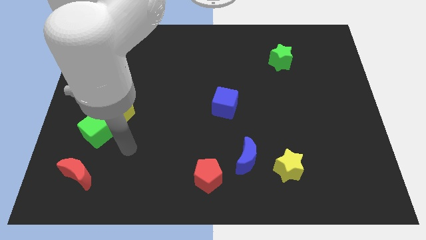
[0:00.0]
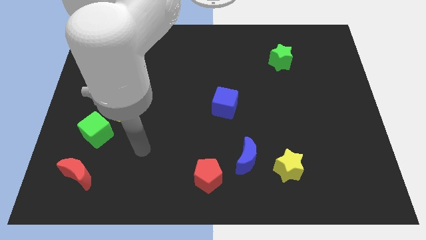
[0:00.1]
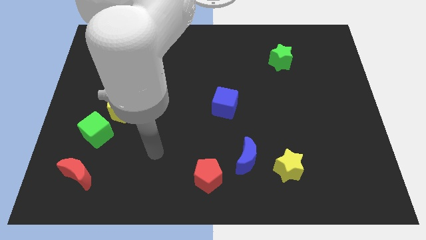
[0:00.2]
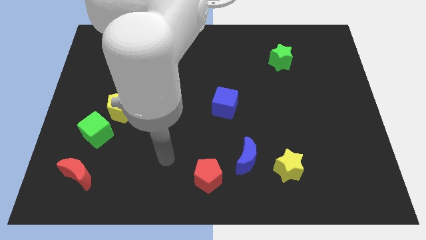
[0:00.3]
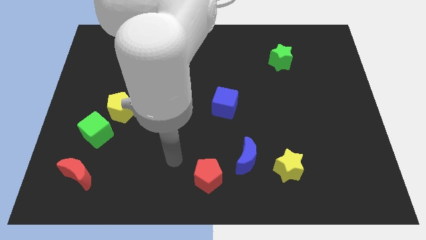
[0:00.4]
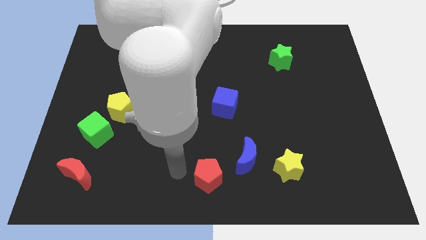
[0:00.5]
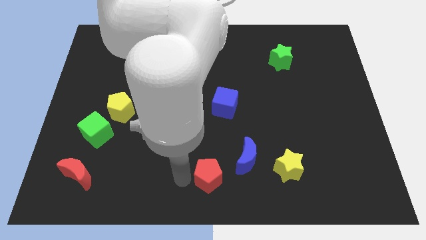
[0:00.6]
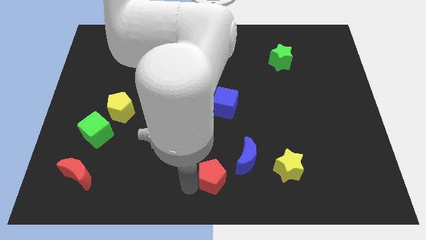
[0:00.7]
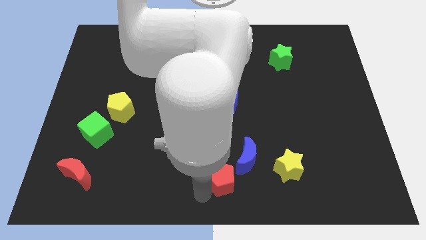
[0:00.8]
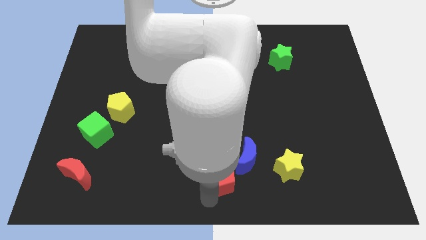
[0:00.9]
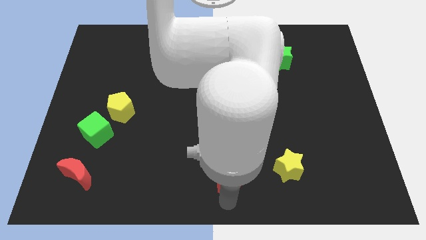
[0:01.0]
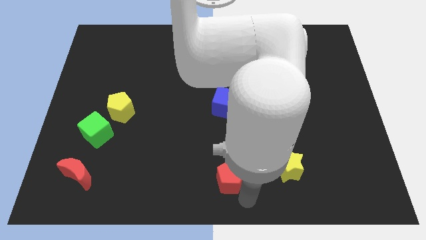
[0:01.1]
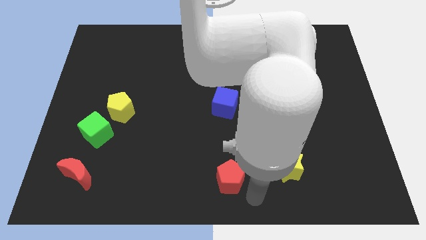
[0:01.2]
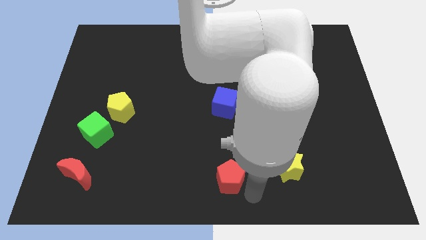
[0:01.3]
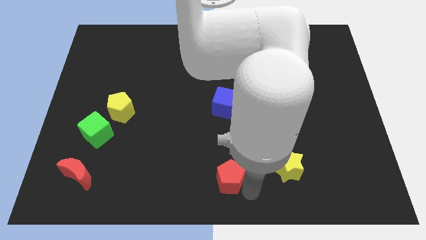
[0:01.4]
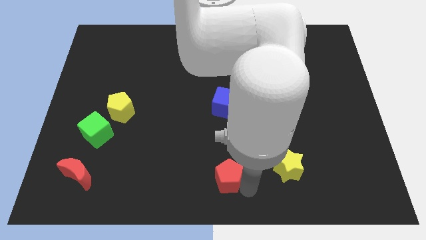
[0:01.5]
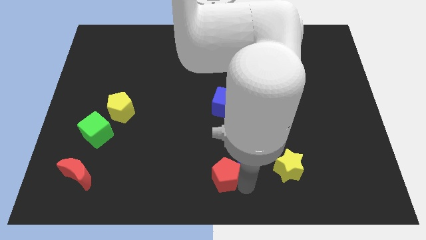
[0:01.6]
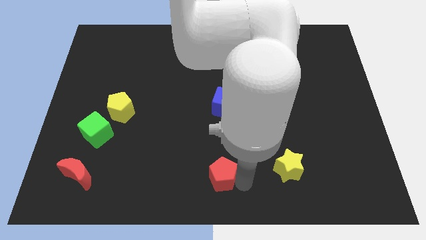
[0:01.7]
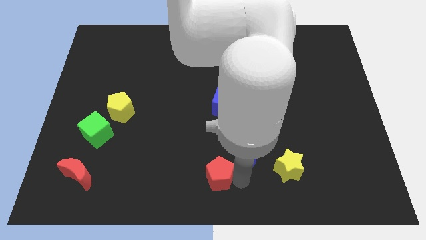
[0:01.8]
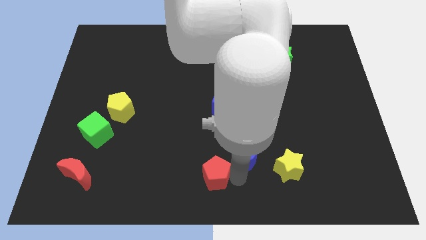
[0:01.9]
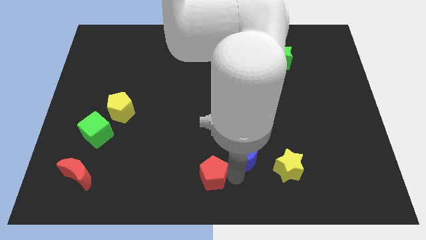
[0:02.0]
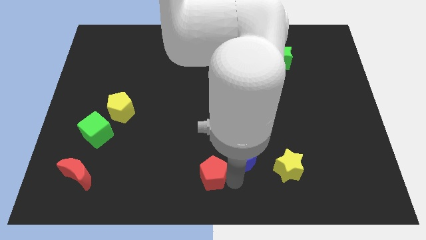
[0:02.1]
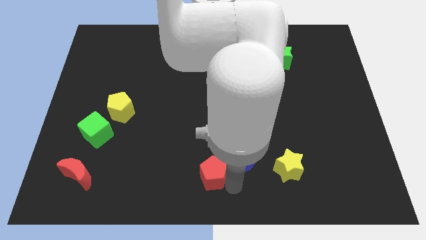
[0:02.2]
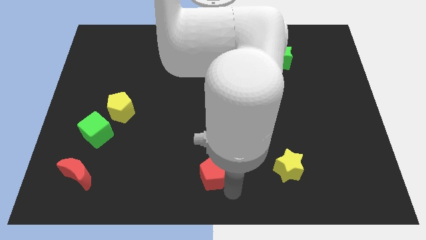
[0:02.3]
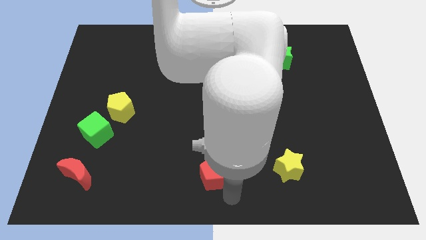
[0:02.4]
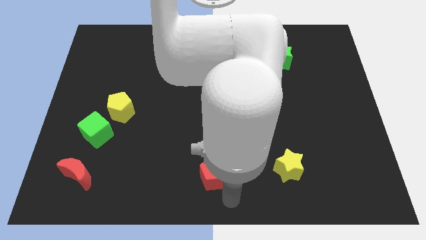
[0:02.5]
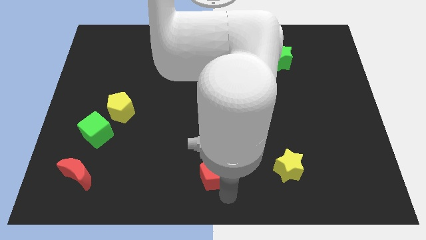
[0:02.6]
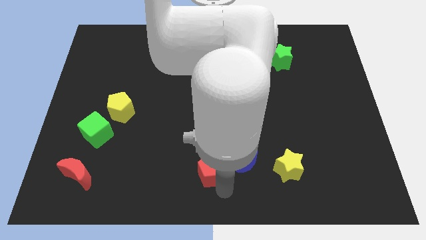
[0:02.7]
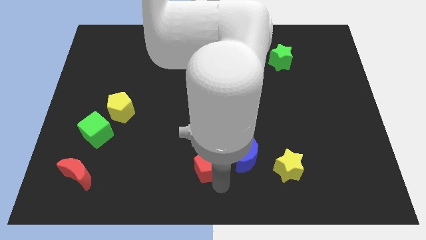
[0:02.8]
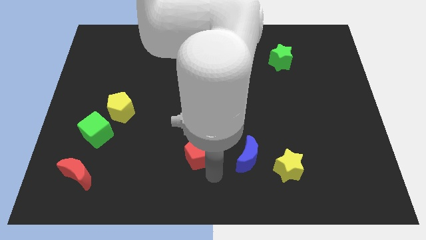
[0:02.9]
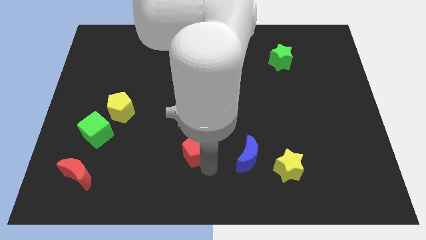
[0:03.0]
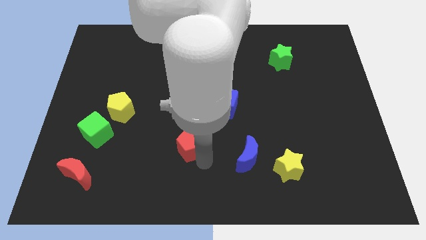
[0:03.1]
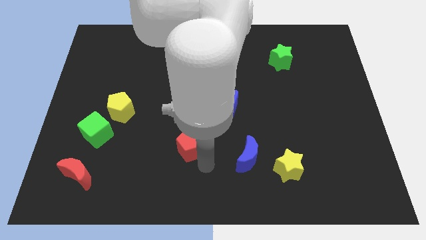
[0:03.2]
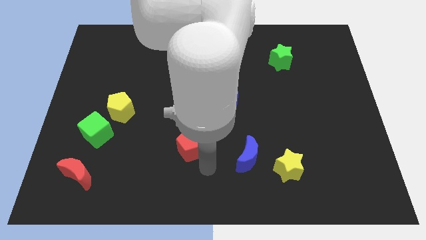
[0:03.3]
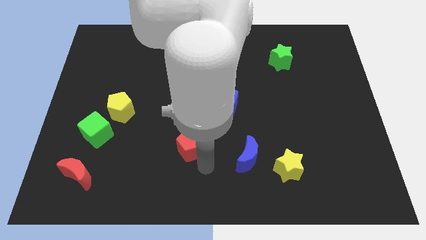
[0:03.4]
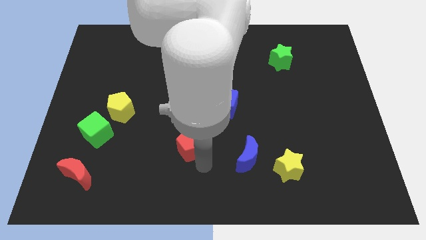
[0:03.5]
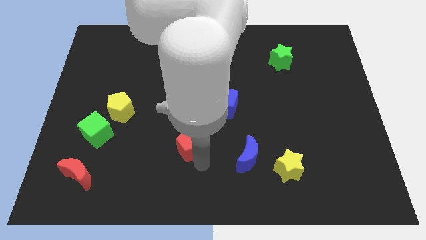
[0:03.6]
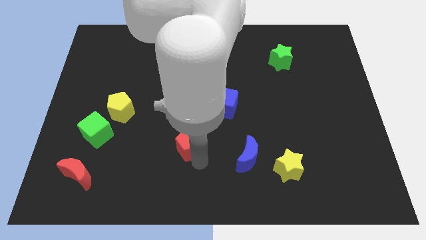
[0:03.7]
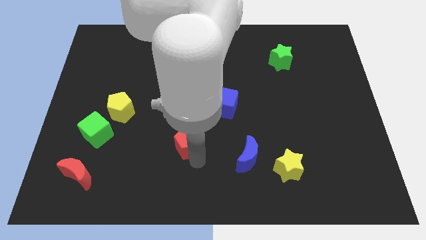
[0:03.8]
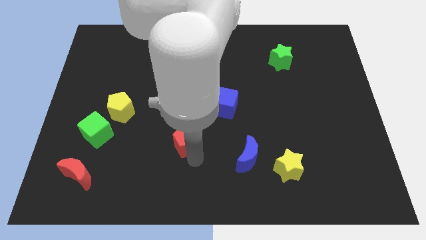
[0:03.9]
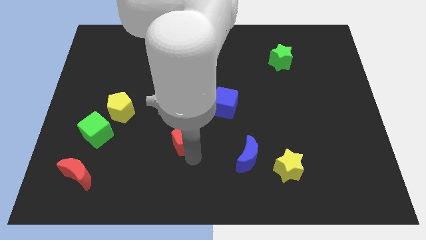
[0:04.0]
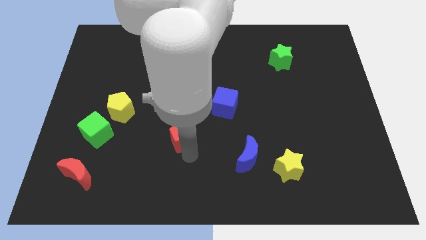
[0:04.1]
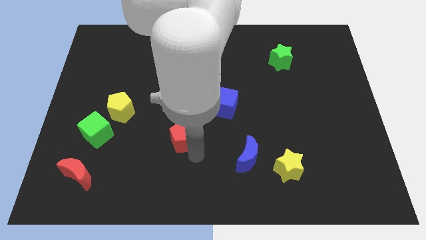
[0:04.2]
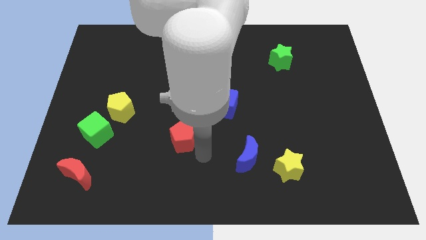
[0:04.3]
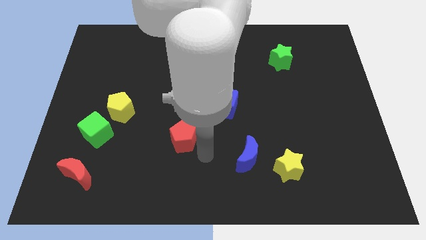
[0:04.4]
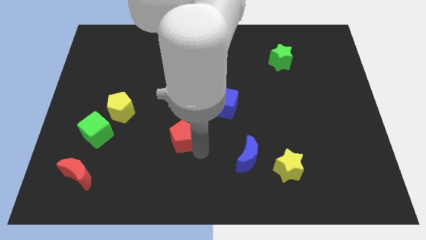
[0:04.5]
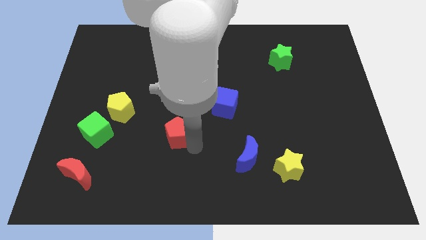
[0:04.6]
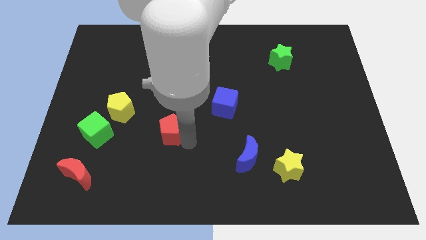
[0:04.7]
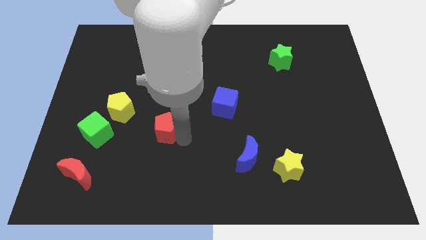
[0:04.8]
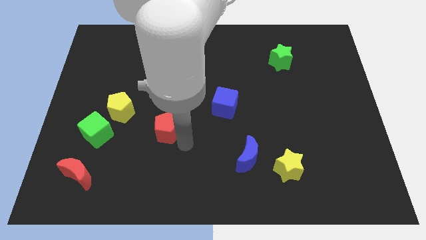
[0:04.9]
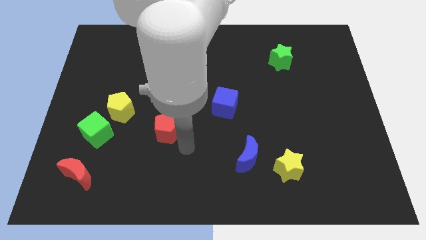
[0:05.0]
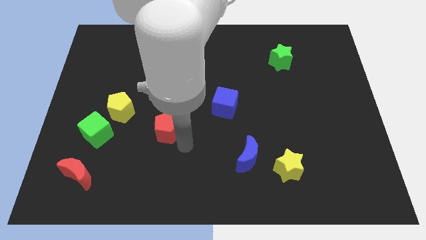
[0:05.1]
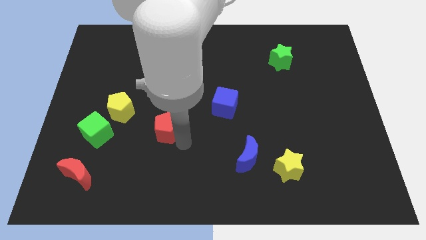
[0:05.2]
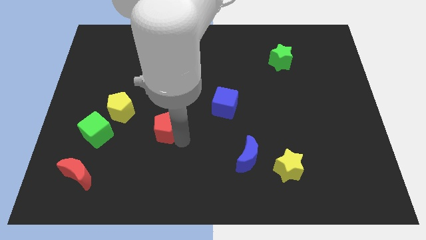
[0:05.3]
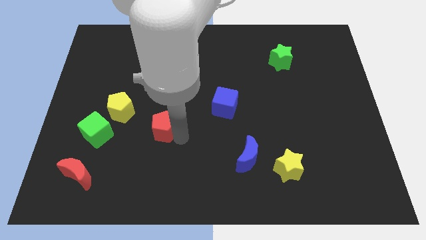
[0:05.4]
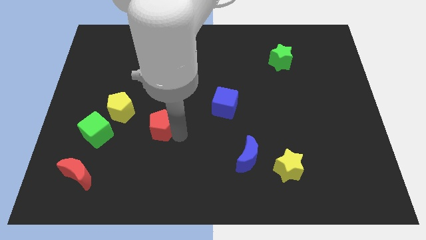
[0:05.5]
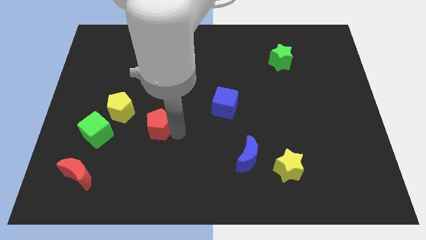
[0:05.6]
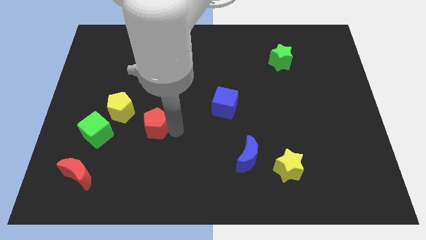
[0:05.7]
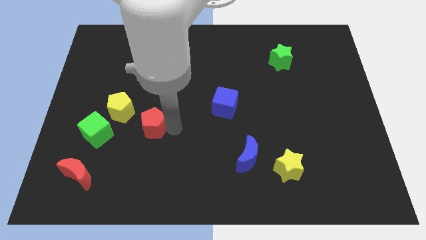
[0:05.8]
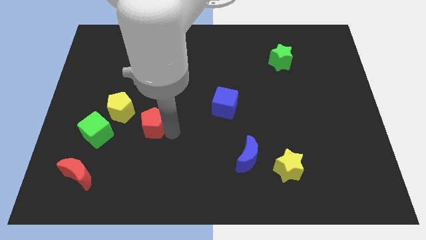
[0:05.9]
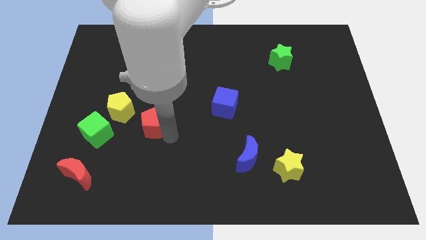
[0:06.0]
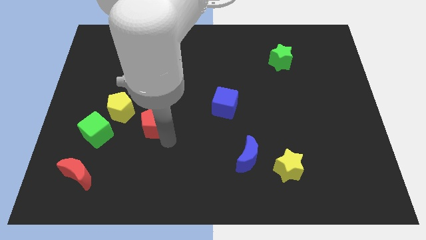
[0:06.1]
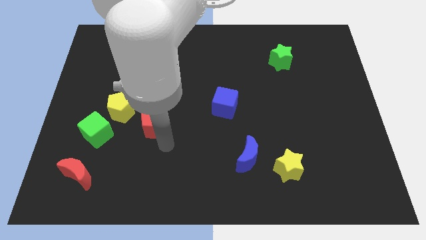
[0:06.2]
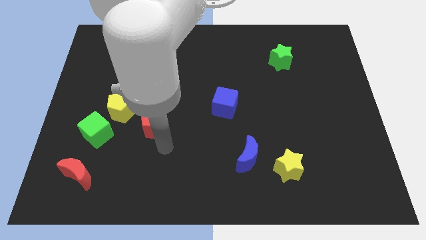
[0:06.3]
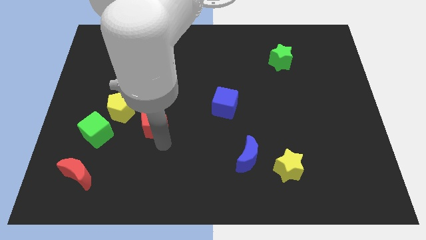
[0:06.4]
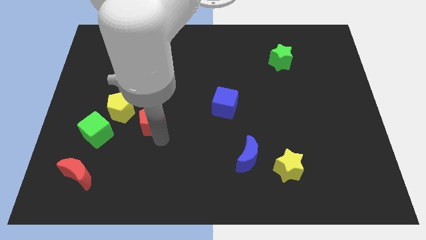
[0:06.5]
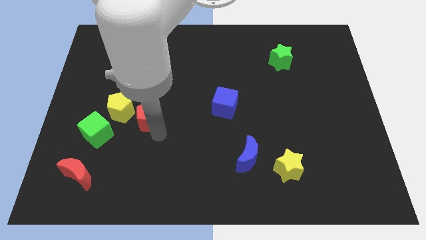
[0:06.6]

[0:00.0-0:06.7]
slide the red pentagon up and to the left

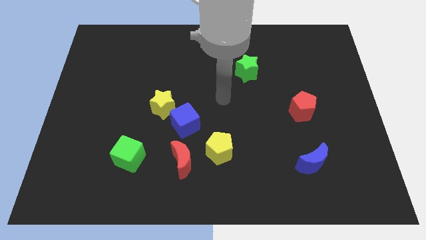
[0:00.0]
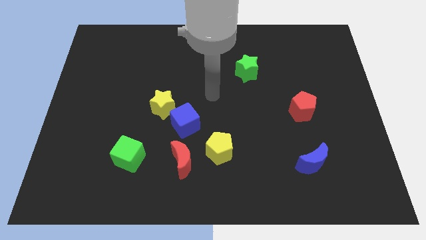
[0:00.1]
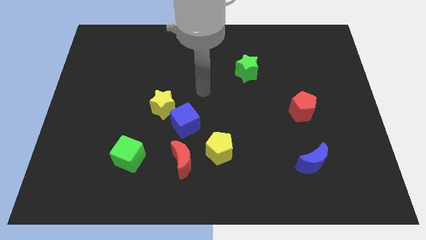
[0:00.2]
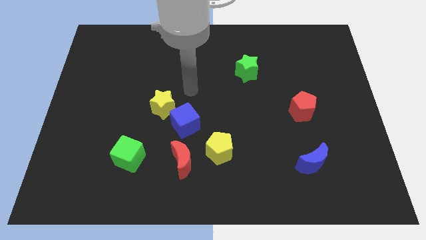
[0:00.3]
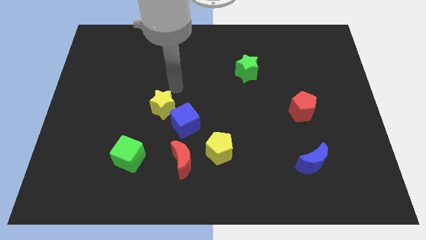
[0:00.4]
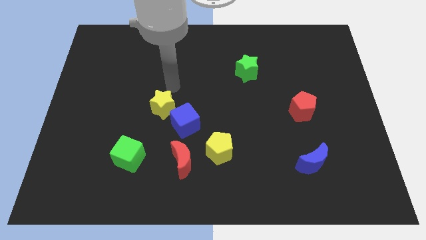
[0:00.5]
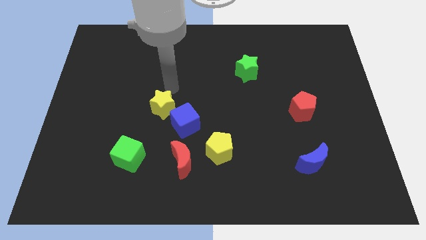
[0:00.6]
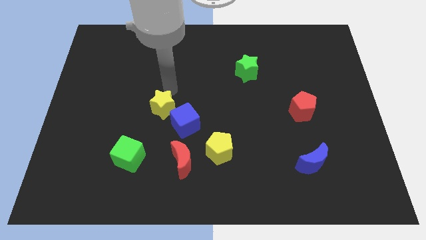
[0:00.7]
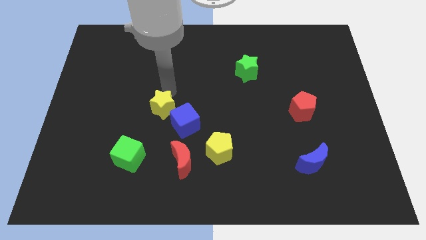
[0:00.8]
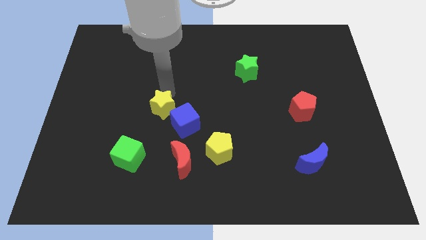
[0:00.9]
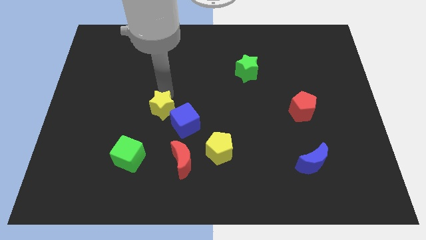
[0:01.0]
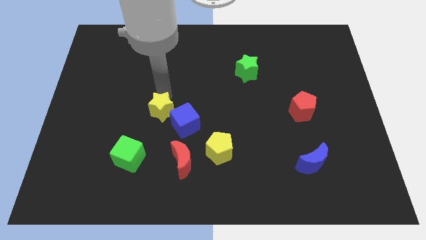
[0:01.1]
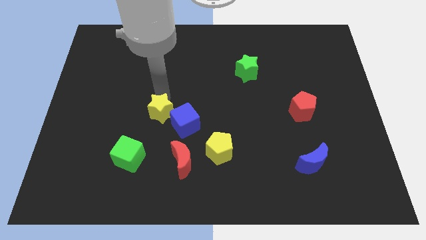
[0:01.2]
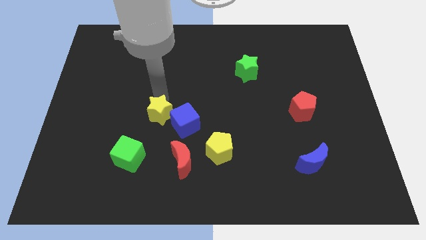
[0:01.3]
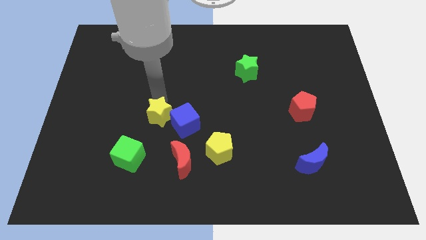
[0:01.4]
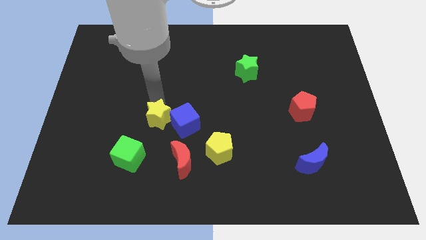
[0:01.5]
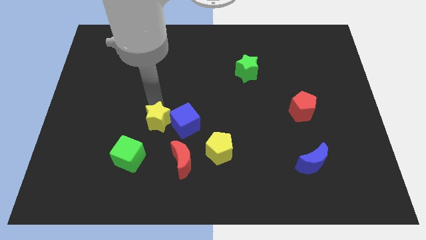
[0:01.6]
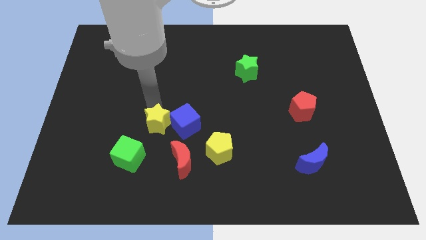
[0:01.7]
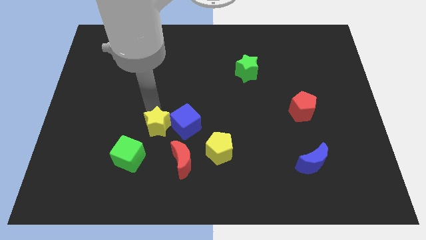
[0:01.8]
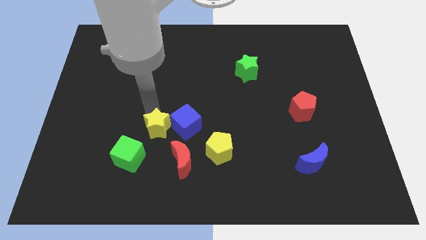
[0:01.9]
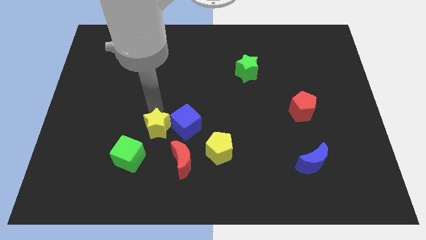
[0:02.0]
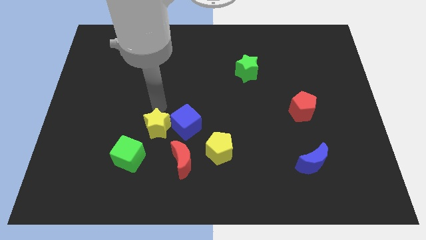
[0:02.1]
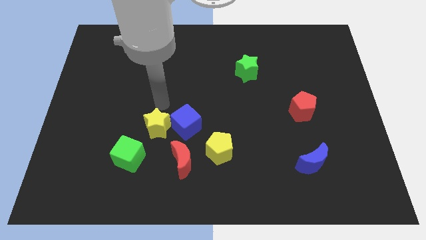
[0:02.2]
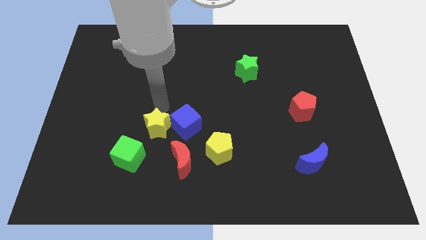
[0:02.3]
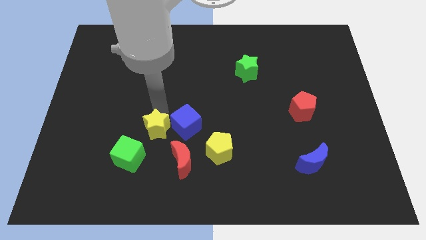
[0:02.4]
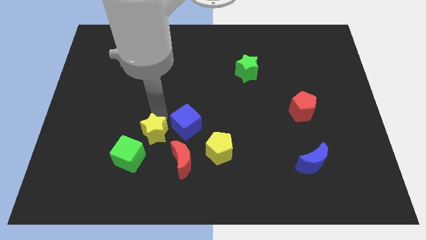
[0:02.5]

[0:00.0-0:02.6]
slide the yellow star downwards slightly
